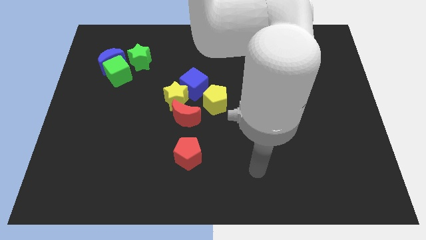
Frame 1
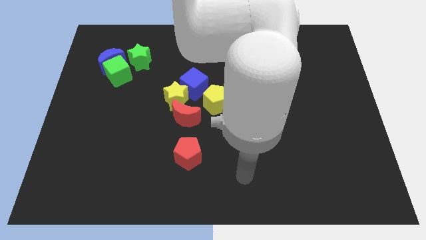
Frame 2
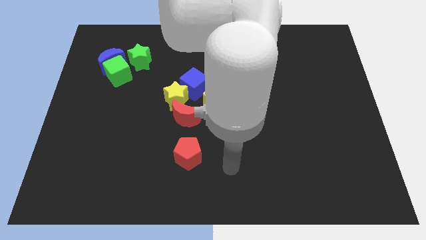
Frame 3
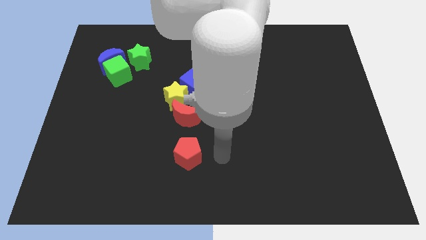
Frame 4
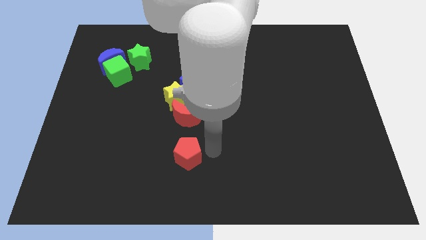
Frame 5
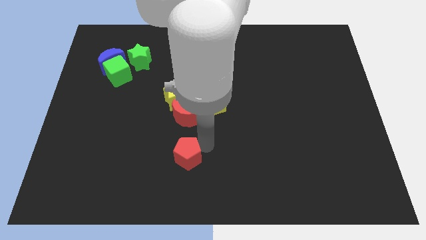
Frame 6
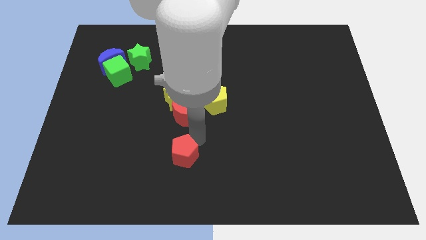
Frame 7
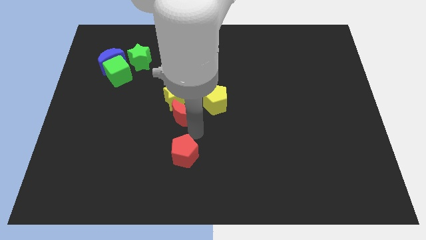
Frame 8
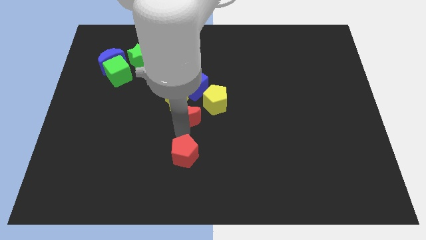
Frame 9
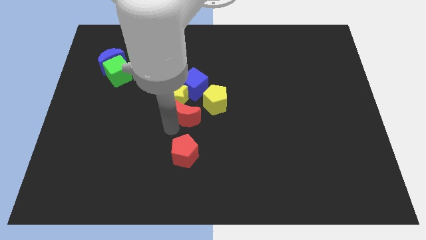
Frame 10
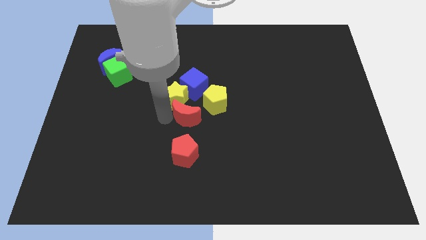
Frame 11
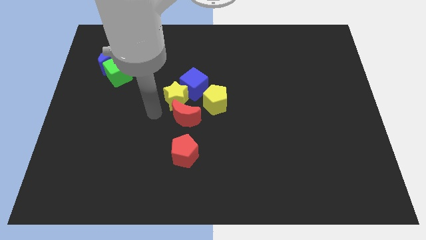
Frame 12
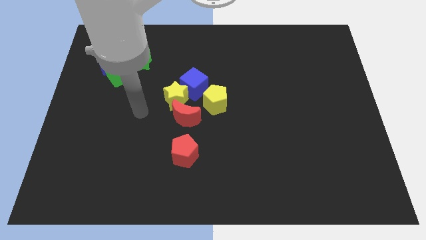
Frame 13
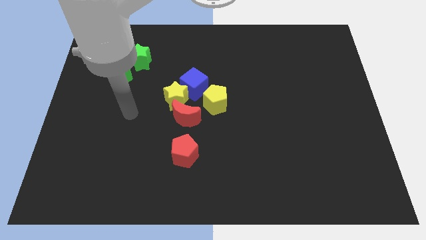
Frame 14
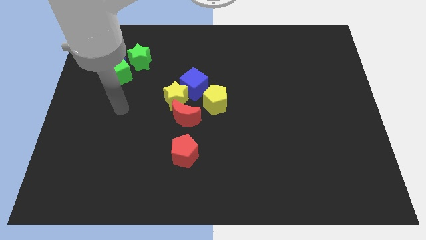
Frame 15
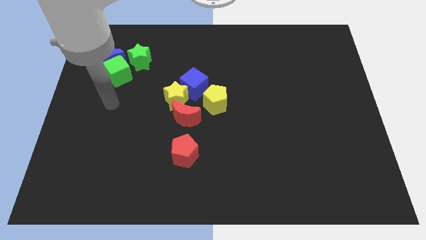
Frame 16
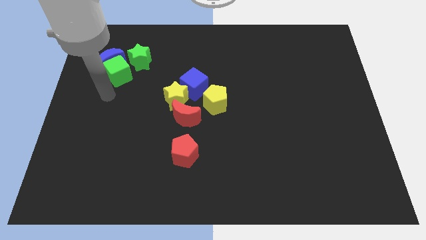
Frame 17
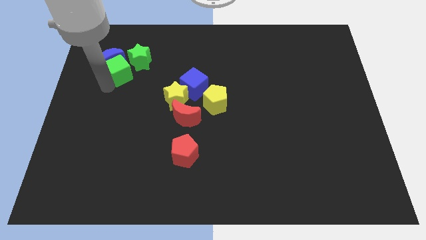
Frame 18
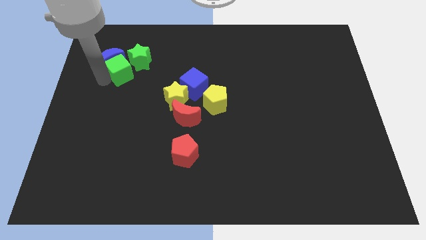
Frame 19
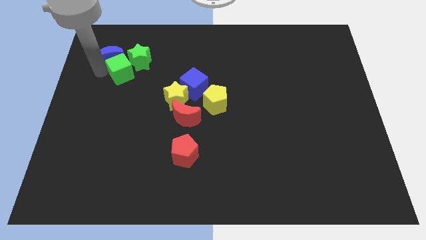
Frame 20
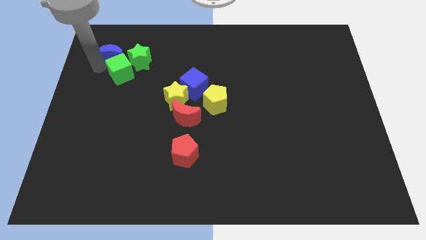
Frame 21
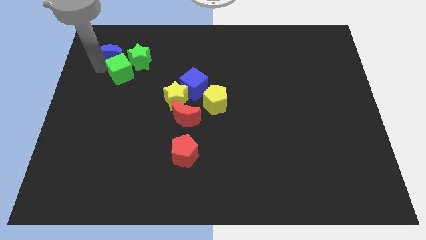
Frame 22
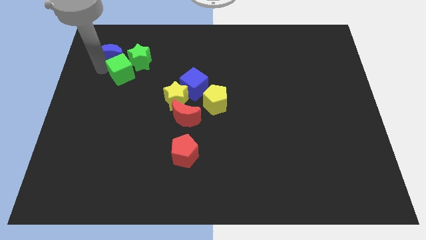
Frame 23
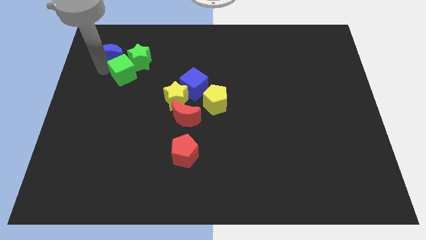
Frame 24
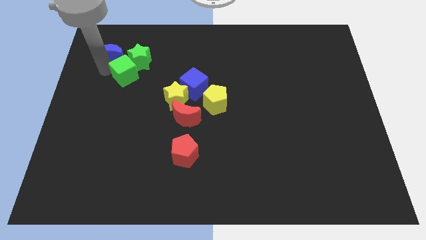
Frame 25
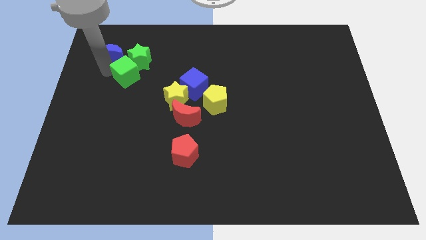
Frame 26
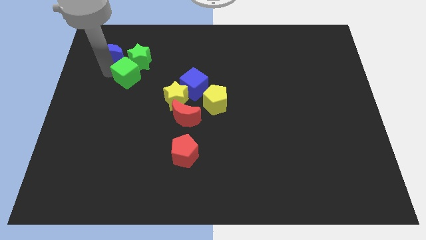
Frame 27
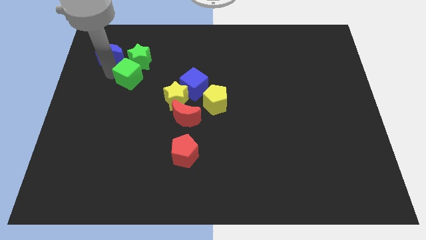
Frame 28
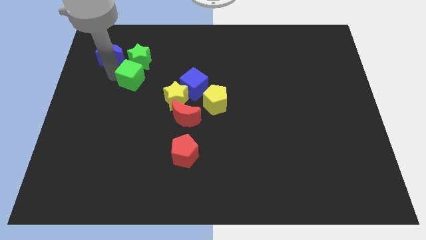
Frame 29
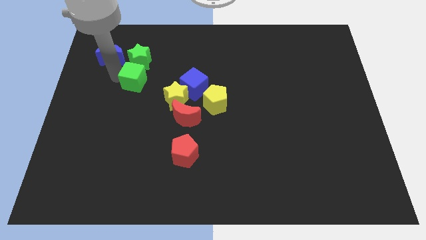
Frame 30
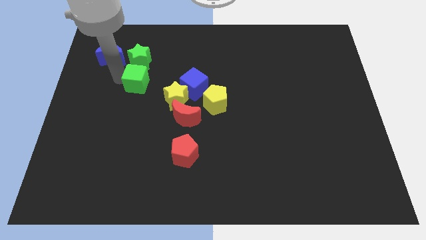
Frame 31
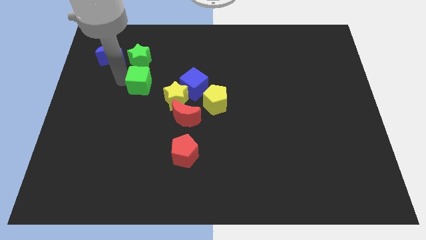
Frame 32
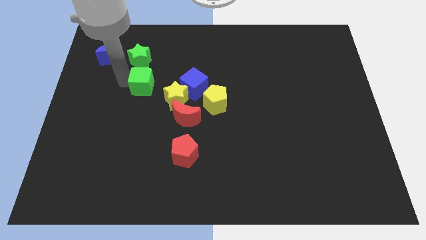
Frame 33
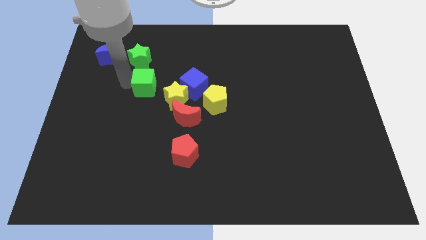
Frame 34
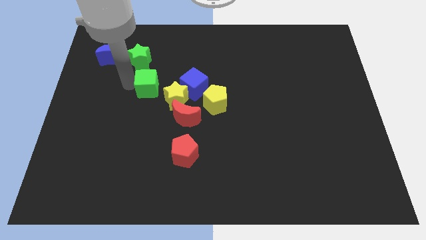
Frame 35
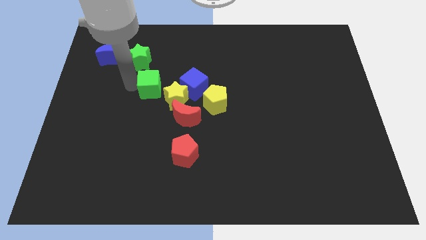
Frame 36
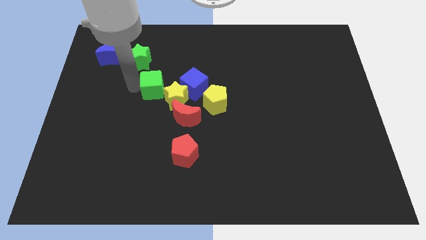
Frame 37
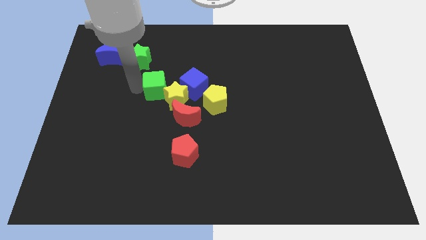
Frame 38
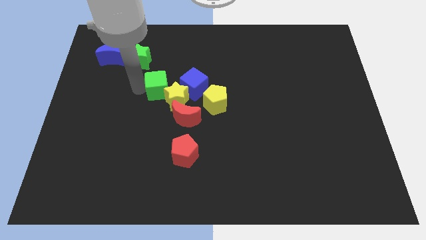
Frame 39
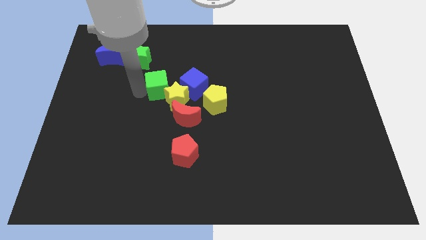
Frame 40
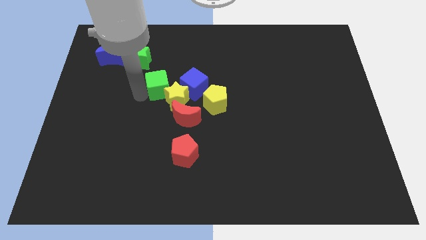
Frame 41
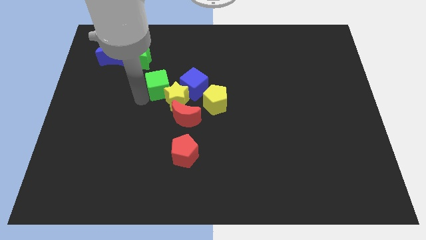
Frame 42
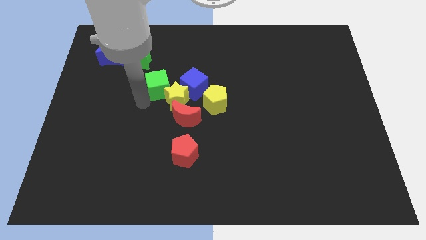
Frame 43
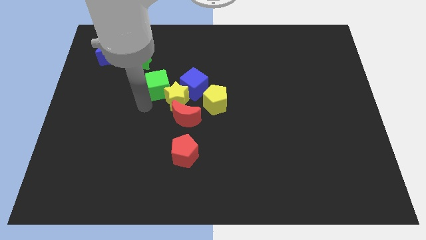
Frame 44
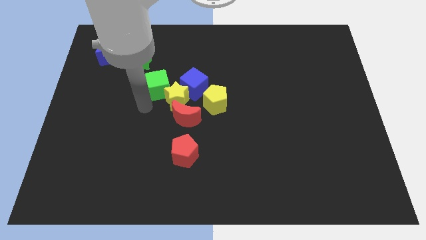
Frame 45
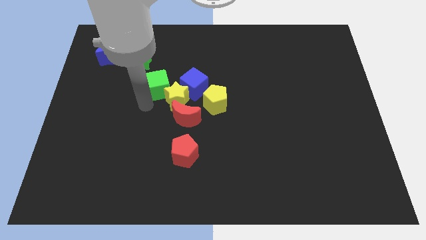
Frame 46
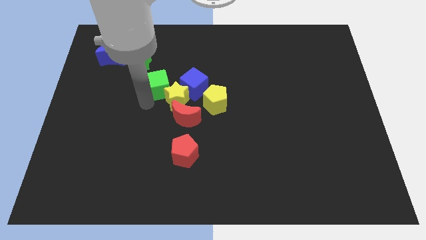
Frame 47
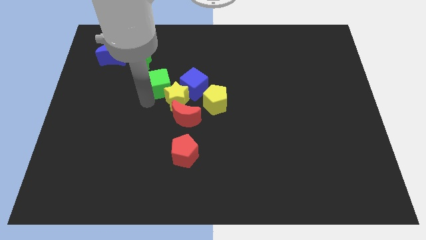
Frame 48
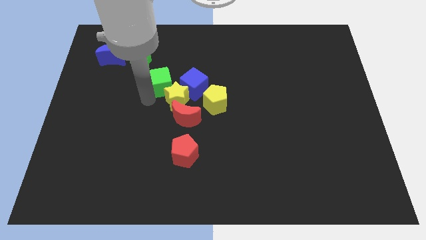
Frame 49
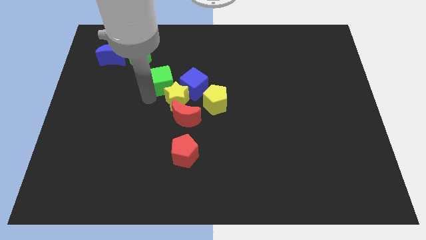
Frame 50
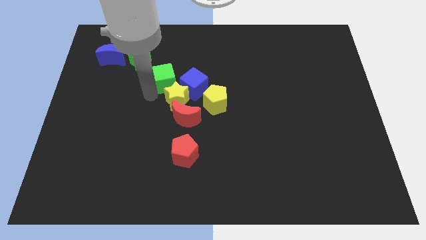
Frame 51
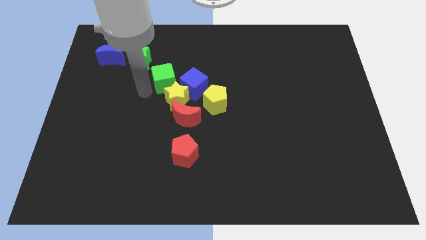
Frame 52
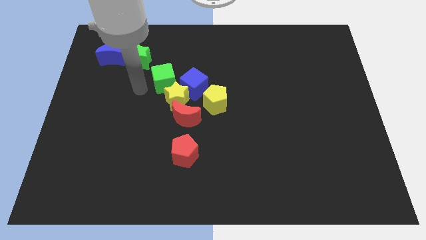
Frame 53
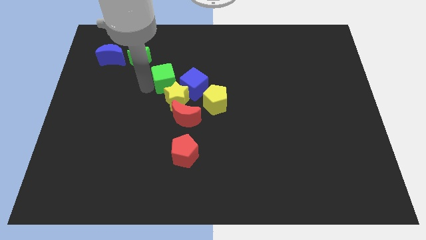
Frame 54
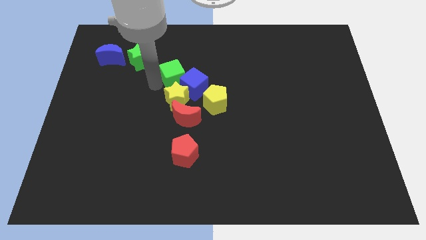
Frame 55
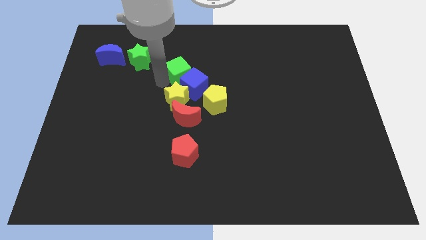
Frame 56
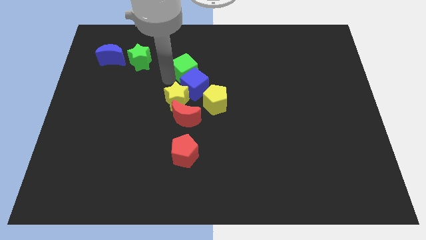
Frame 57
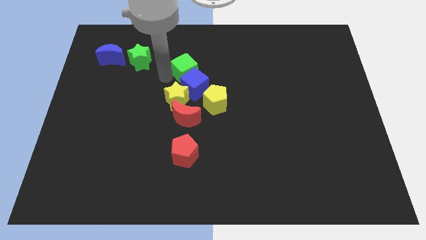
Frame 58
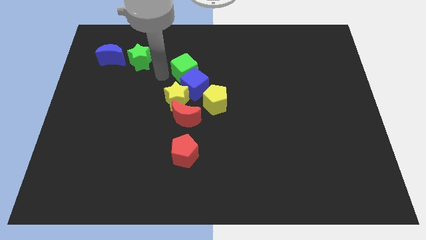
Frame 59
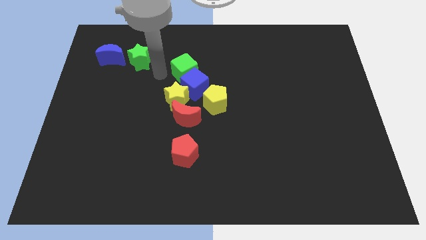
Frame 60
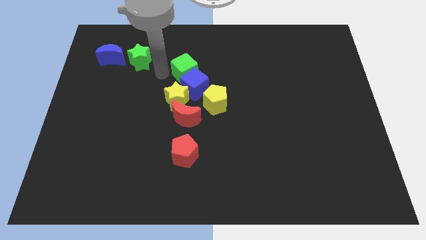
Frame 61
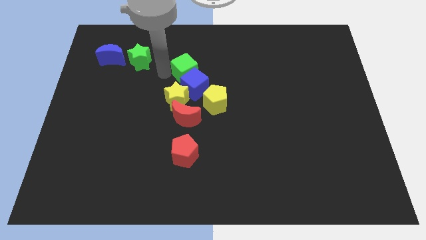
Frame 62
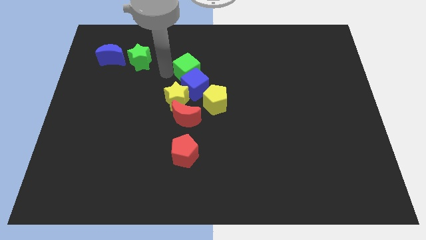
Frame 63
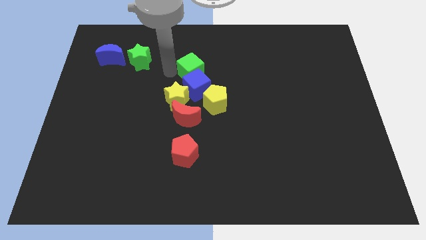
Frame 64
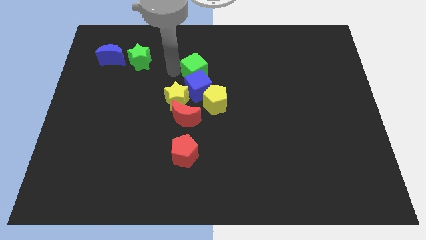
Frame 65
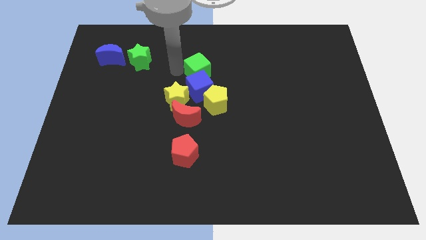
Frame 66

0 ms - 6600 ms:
push the green cube right

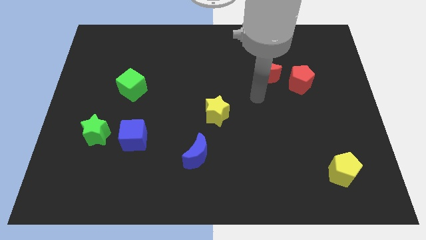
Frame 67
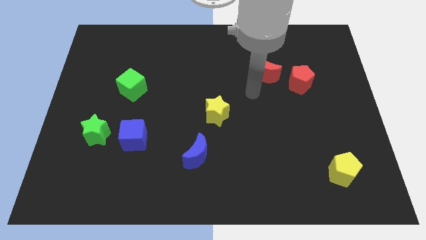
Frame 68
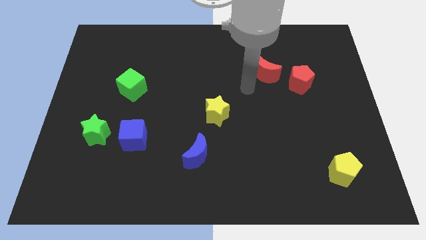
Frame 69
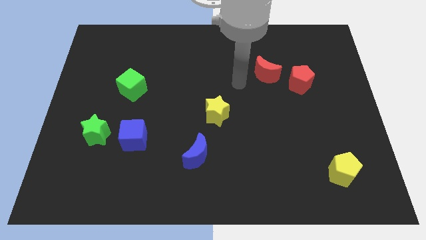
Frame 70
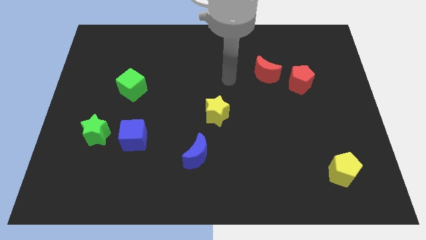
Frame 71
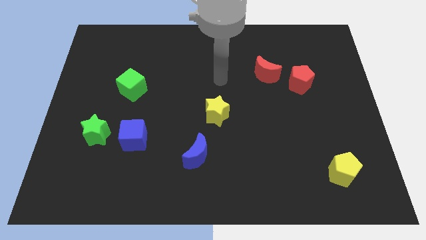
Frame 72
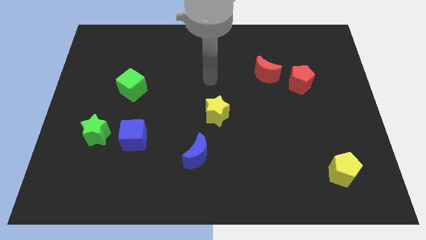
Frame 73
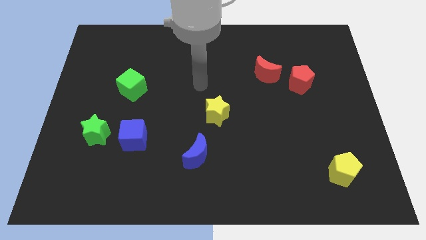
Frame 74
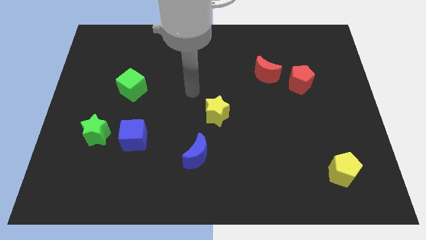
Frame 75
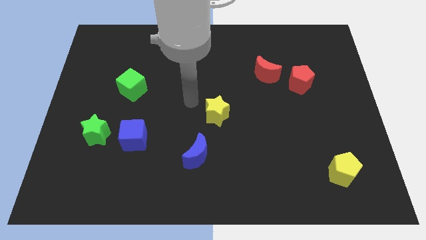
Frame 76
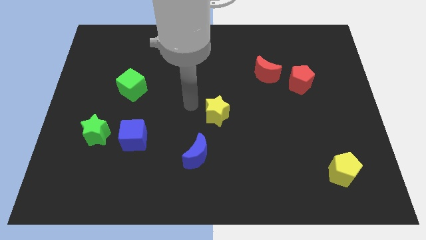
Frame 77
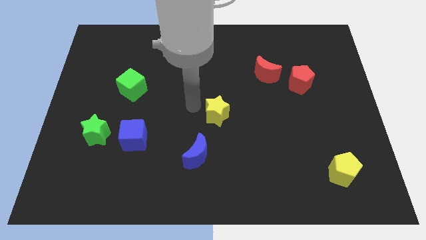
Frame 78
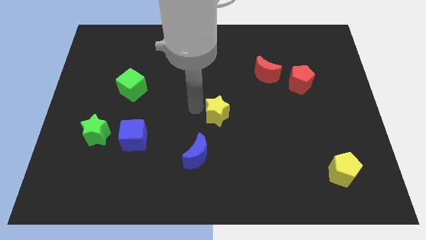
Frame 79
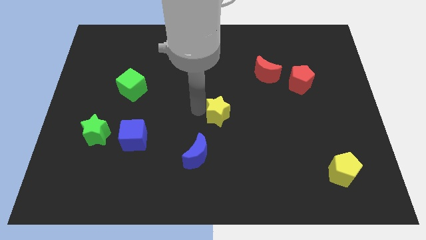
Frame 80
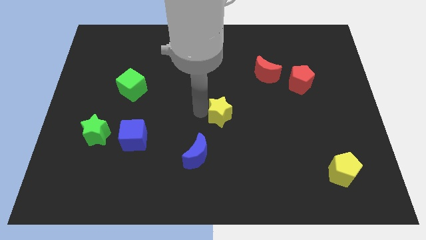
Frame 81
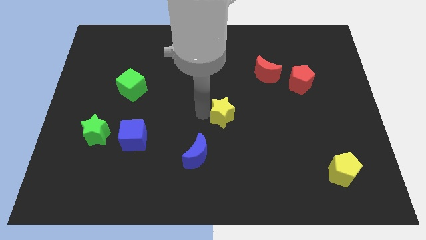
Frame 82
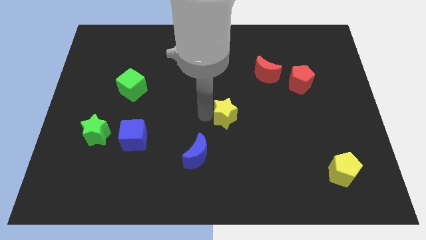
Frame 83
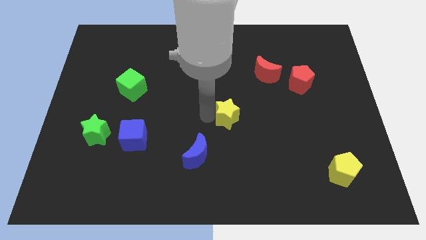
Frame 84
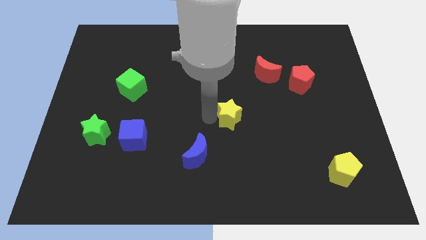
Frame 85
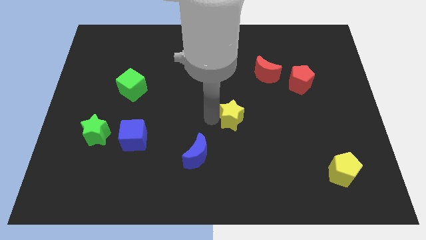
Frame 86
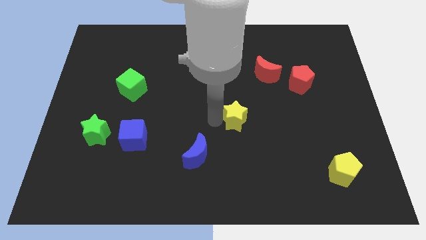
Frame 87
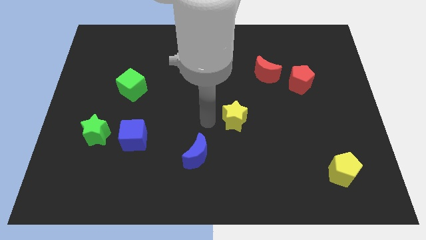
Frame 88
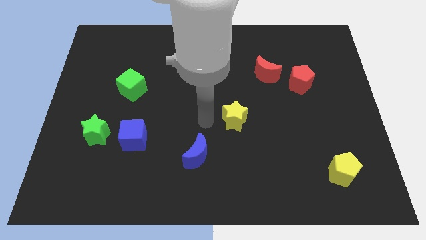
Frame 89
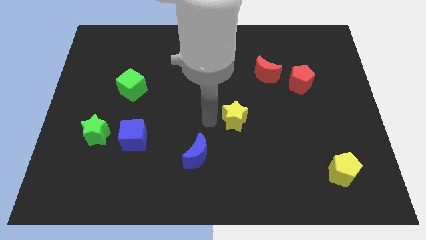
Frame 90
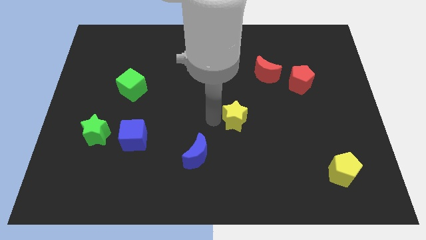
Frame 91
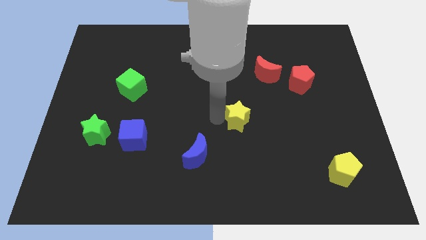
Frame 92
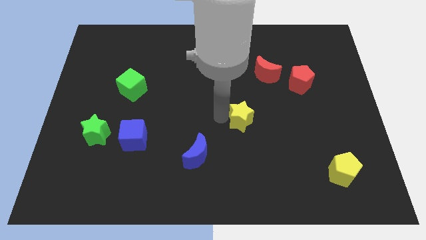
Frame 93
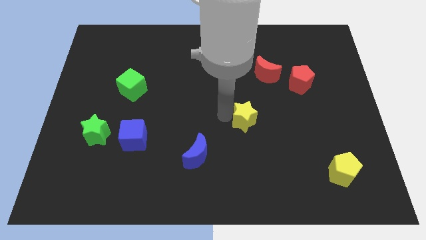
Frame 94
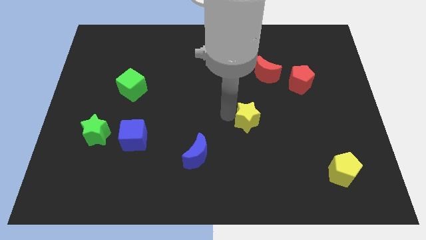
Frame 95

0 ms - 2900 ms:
slightly slide the yellow star to the right
